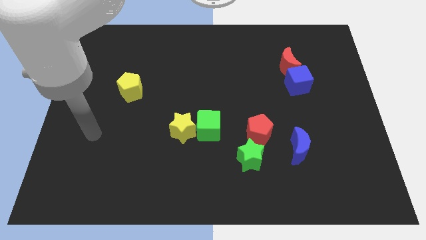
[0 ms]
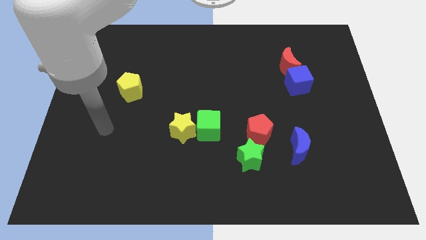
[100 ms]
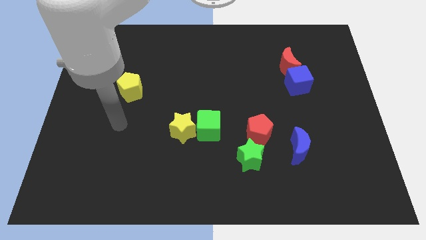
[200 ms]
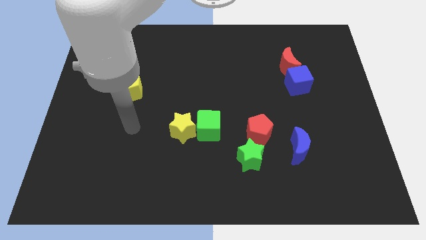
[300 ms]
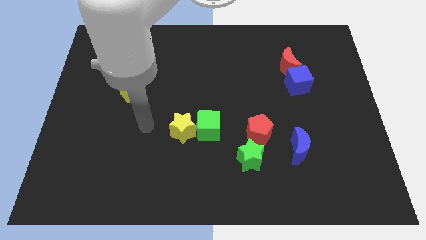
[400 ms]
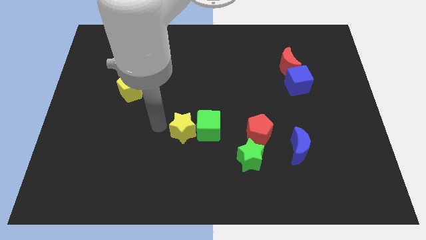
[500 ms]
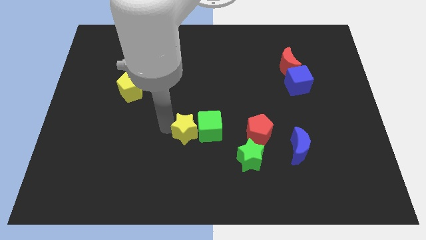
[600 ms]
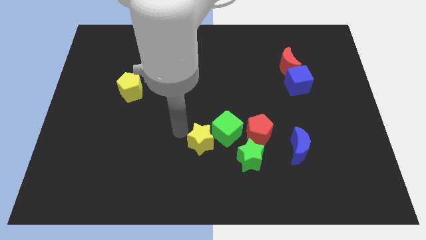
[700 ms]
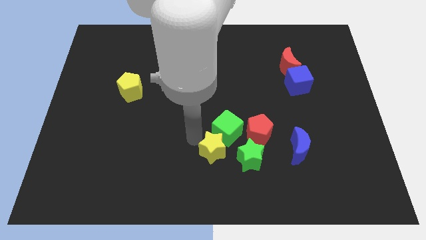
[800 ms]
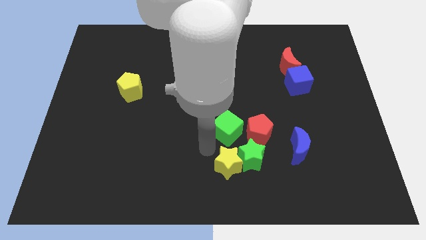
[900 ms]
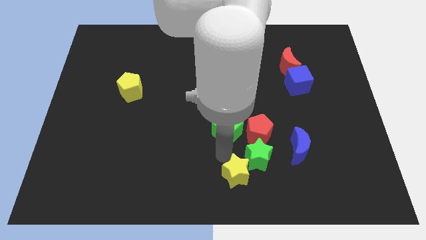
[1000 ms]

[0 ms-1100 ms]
pull the green cube apart from the yellow star

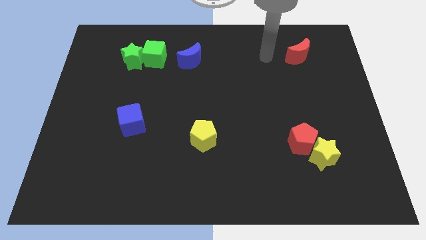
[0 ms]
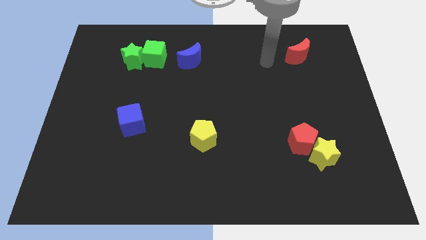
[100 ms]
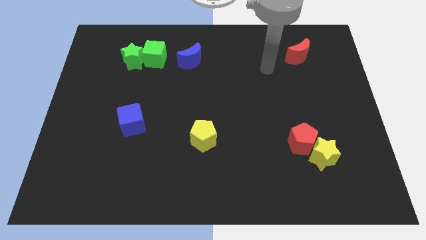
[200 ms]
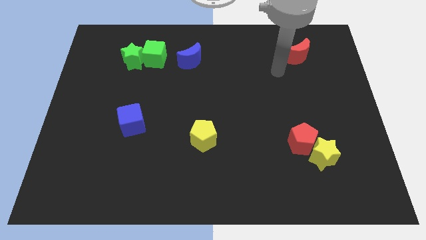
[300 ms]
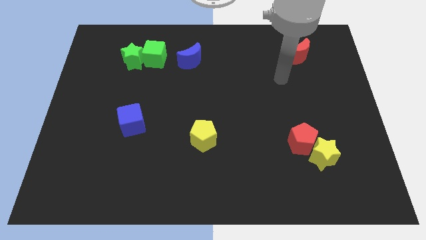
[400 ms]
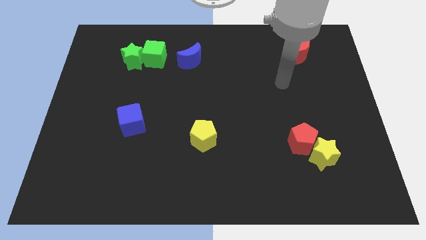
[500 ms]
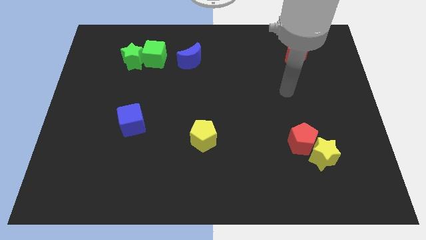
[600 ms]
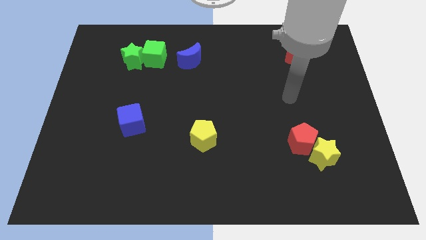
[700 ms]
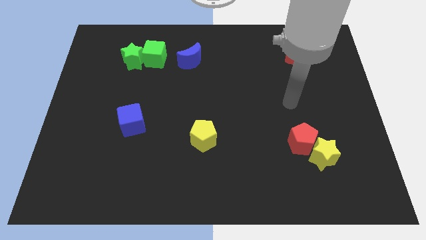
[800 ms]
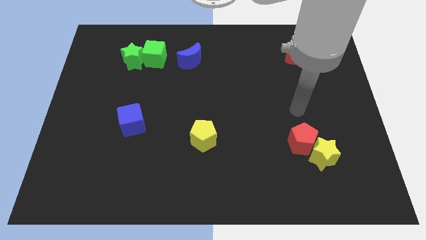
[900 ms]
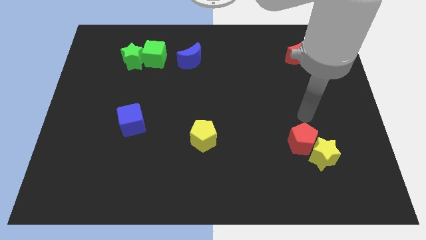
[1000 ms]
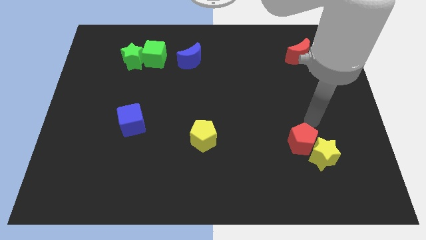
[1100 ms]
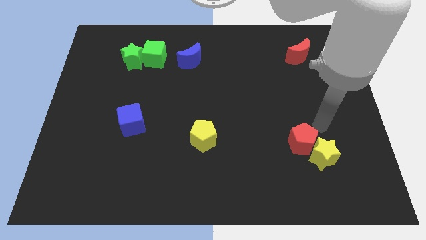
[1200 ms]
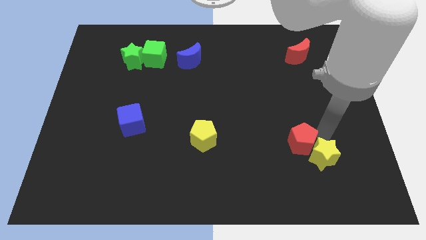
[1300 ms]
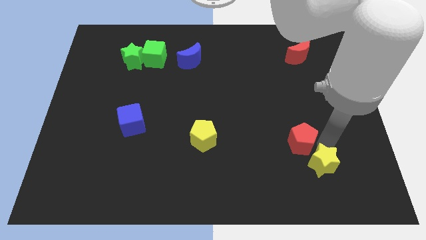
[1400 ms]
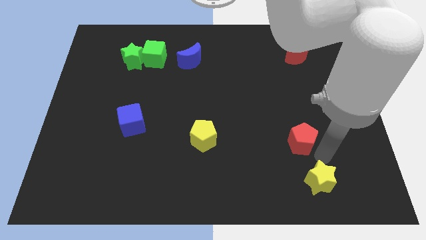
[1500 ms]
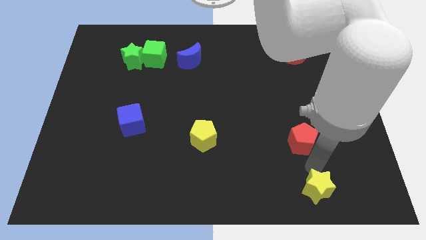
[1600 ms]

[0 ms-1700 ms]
move the red pentagon away from the yellow star

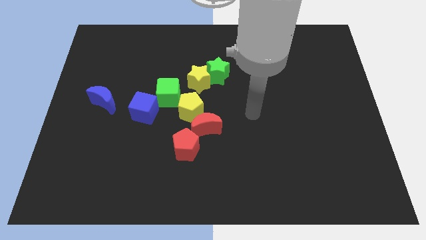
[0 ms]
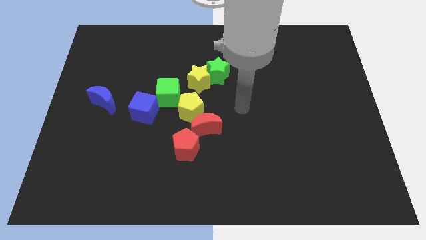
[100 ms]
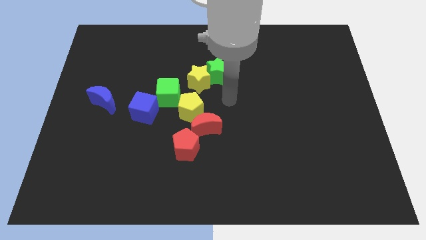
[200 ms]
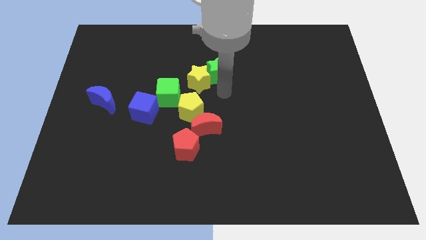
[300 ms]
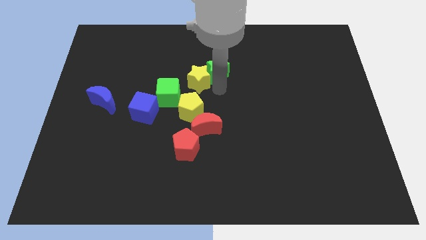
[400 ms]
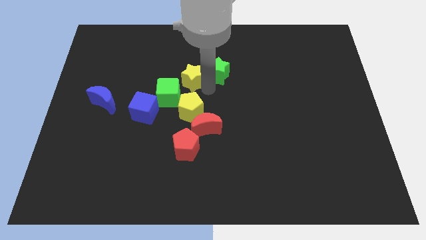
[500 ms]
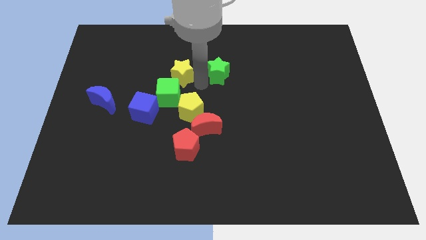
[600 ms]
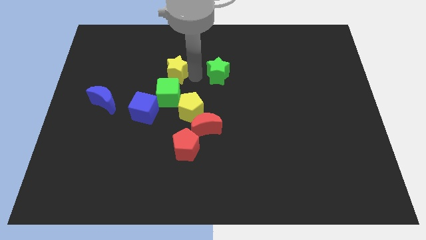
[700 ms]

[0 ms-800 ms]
pull the green star apart from the yellow star

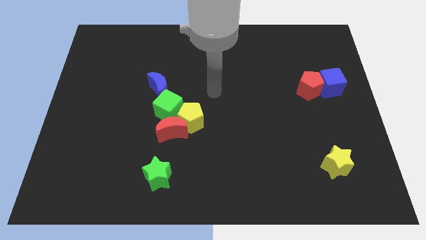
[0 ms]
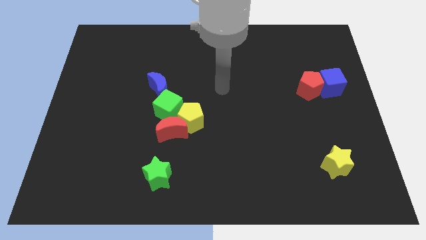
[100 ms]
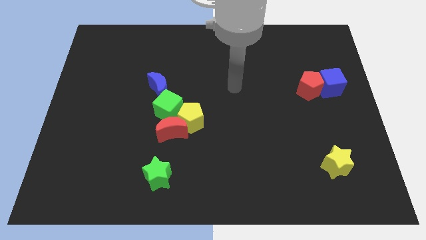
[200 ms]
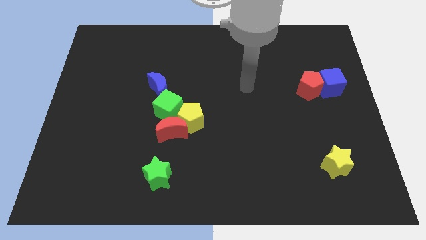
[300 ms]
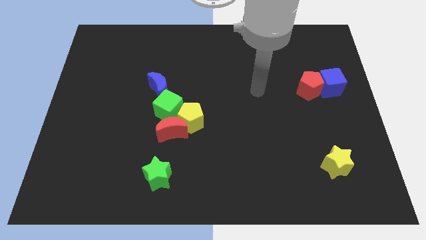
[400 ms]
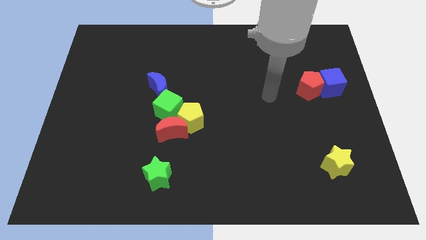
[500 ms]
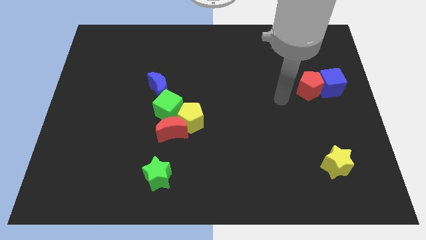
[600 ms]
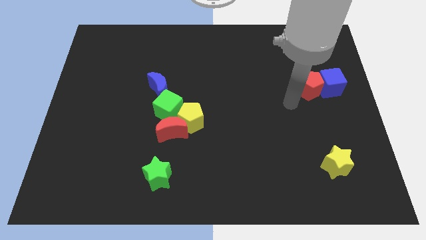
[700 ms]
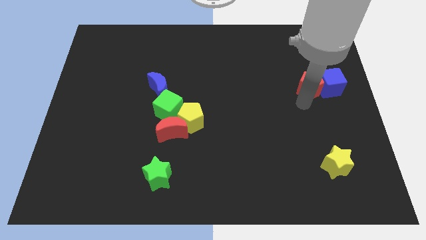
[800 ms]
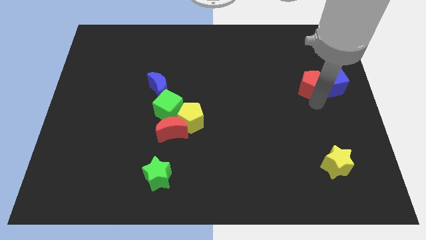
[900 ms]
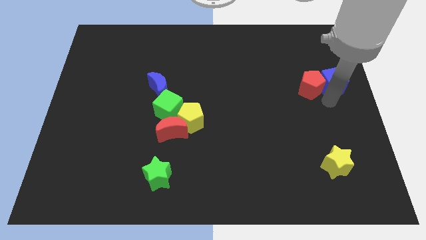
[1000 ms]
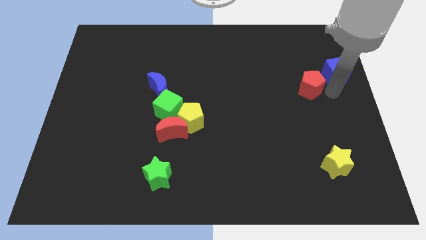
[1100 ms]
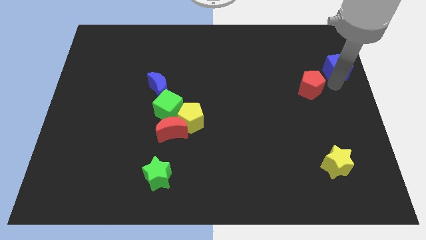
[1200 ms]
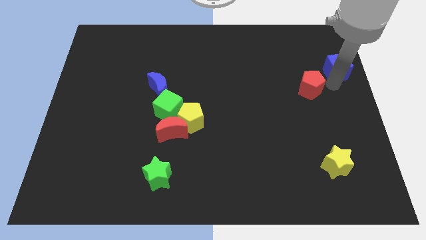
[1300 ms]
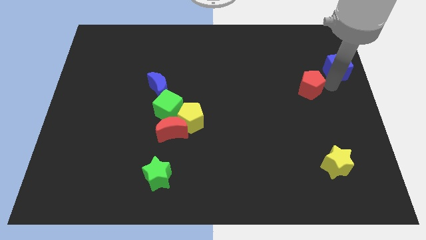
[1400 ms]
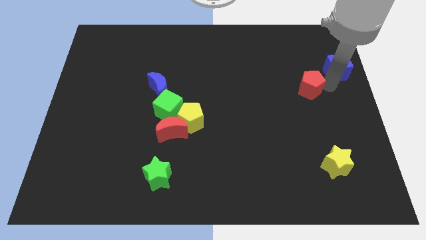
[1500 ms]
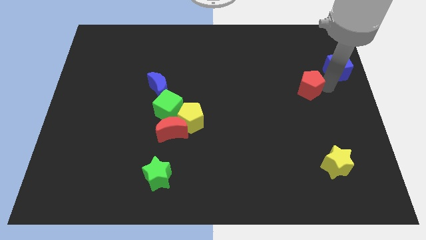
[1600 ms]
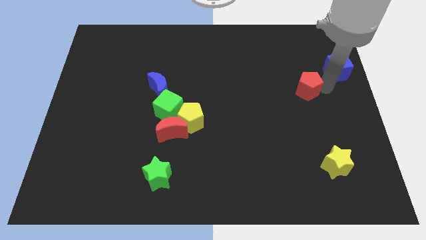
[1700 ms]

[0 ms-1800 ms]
move the red pentagon away from the blue cube

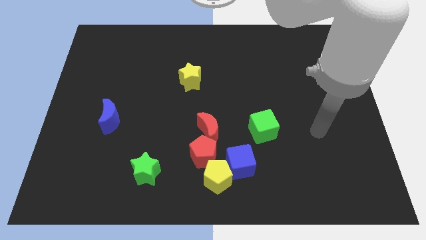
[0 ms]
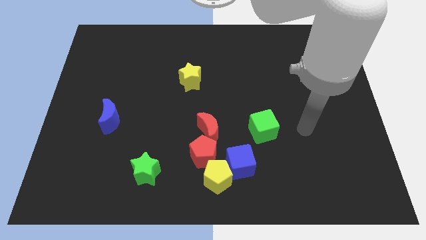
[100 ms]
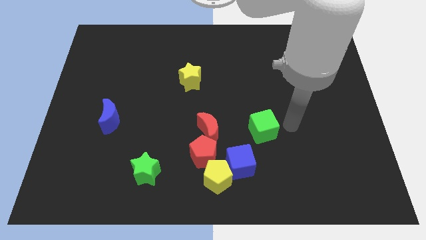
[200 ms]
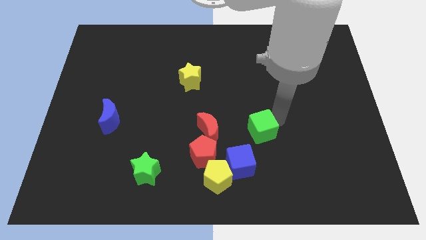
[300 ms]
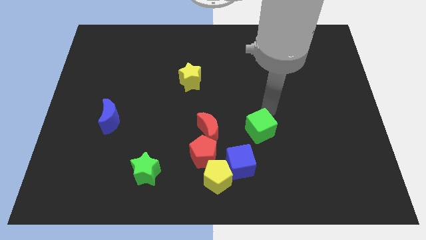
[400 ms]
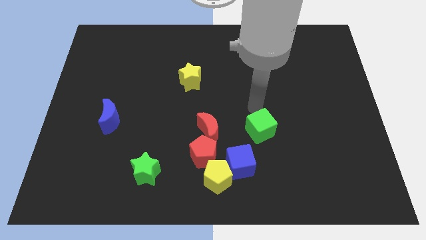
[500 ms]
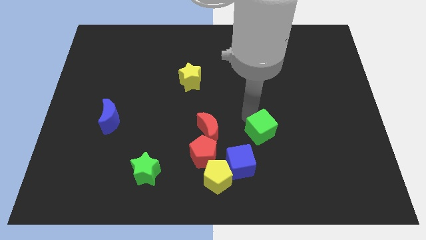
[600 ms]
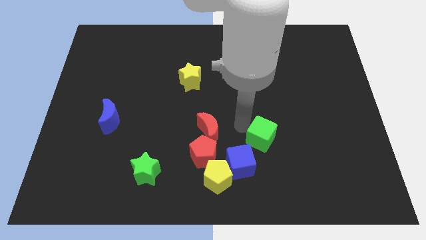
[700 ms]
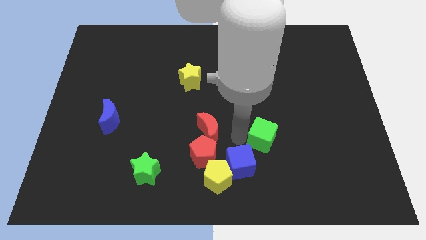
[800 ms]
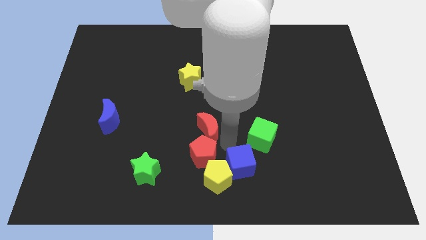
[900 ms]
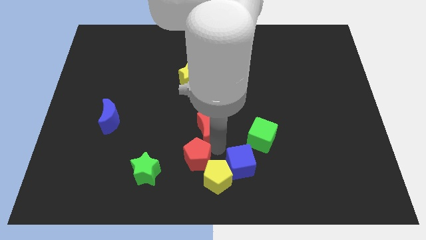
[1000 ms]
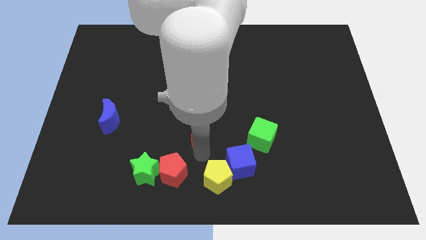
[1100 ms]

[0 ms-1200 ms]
pull the red moon apart from the red pentagon

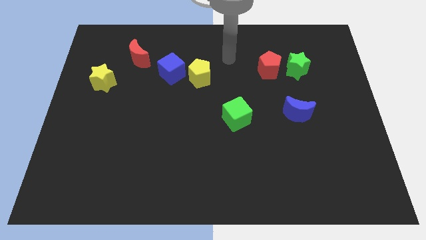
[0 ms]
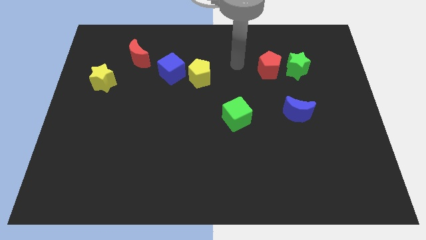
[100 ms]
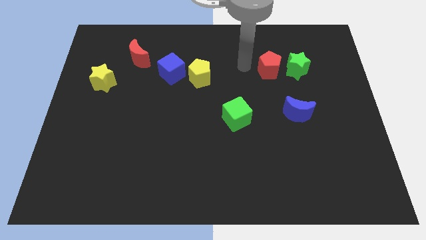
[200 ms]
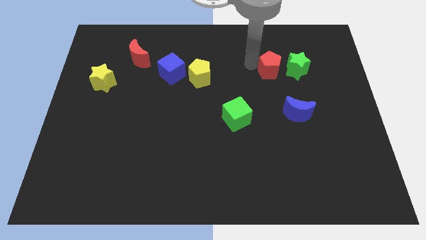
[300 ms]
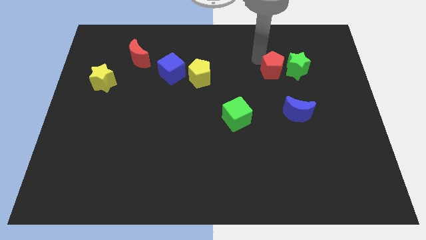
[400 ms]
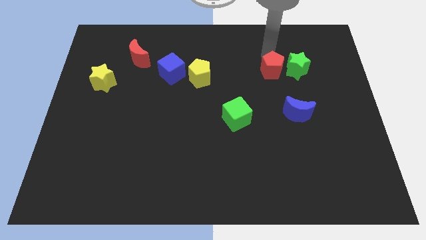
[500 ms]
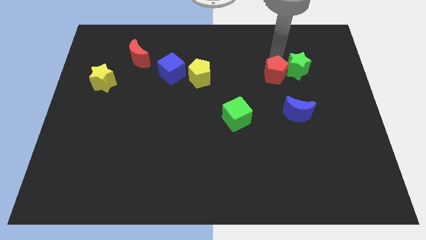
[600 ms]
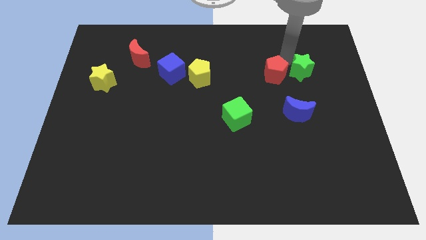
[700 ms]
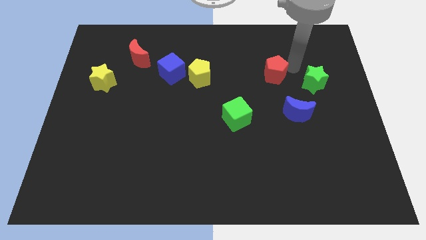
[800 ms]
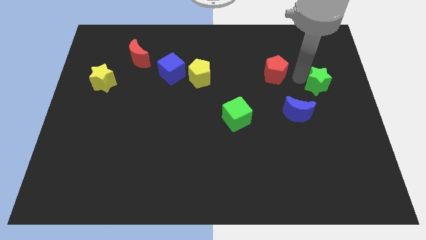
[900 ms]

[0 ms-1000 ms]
move the red pentagon away from the green star

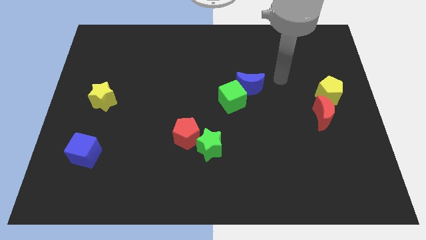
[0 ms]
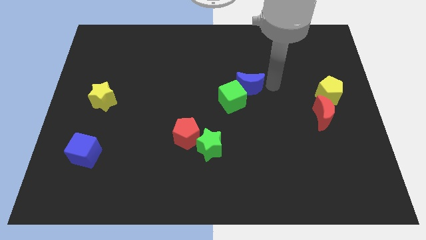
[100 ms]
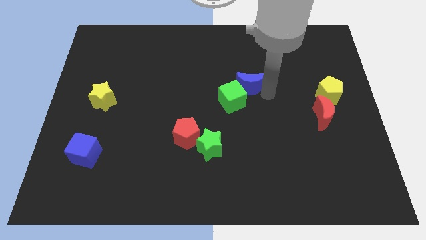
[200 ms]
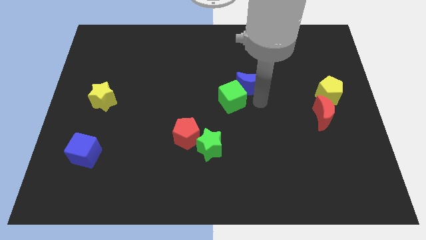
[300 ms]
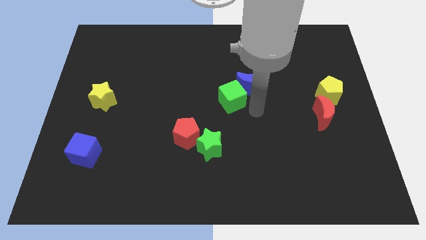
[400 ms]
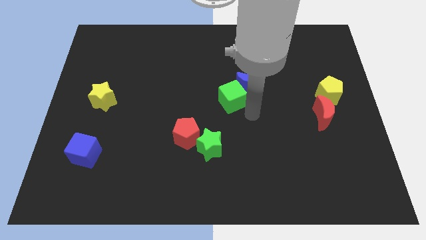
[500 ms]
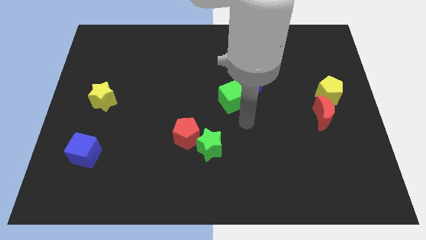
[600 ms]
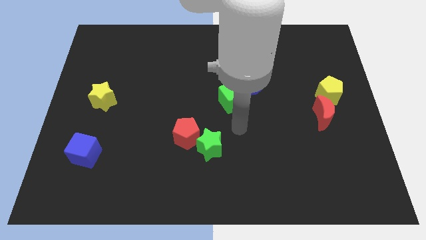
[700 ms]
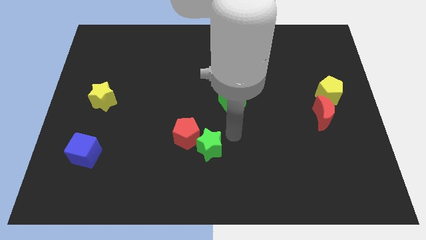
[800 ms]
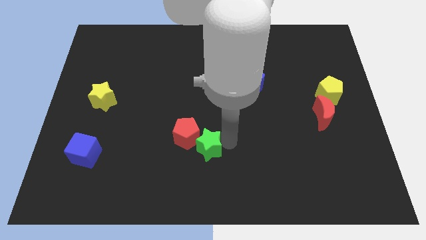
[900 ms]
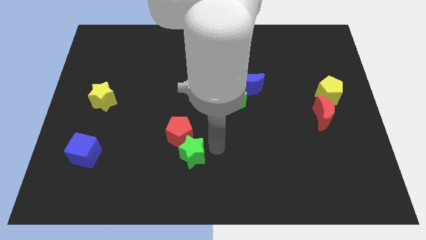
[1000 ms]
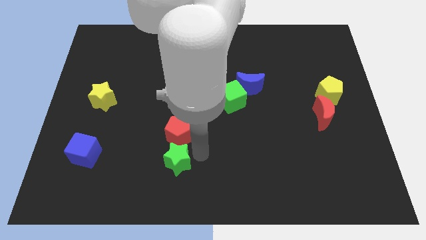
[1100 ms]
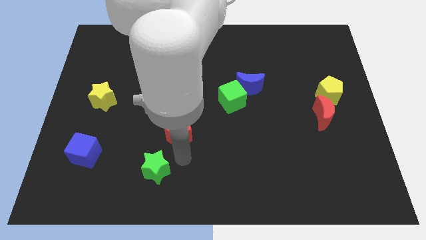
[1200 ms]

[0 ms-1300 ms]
separate the red pentagon from the green star

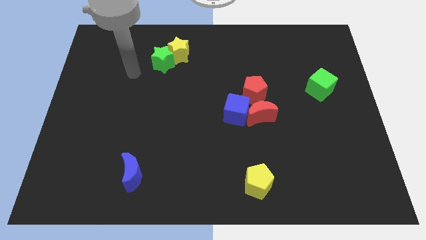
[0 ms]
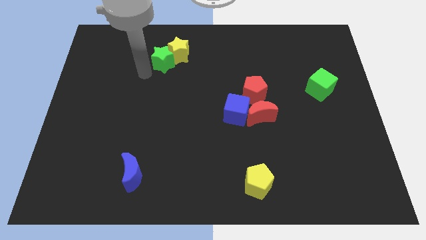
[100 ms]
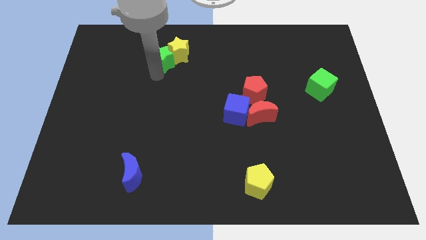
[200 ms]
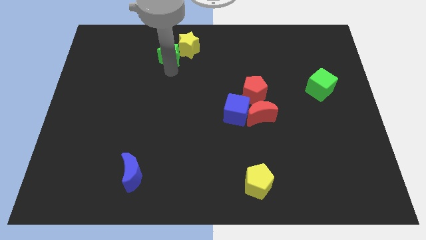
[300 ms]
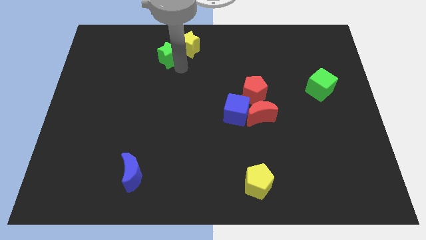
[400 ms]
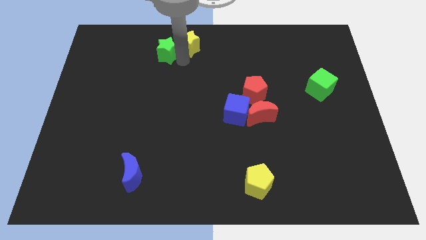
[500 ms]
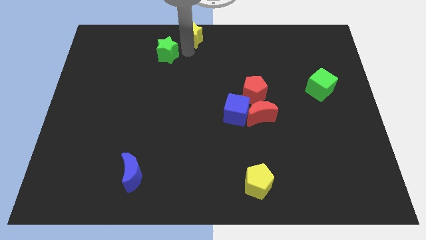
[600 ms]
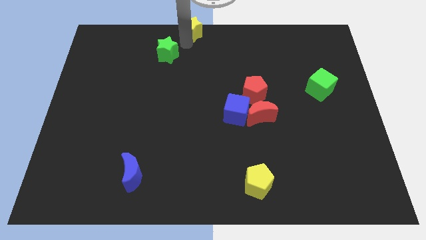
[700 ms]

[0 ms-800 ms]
move the green star away from the yellow star
